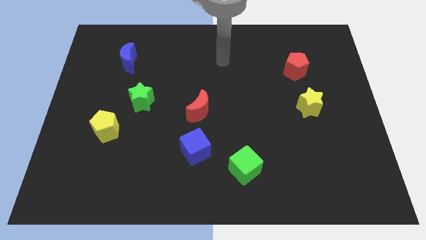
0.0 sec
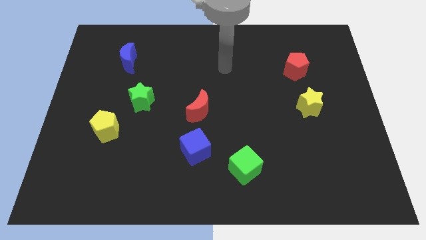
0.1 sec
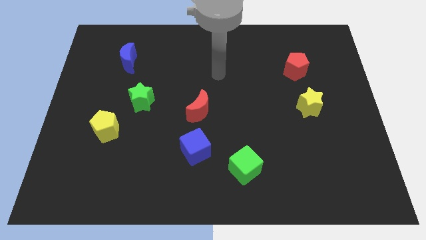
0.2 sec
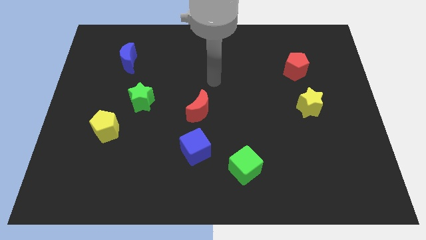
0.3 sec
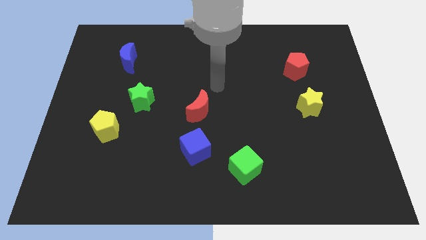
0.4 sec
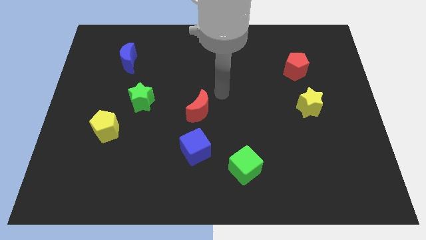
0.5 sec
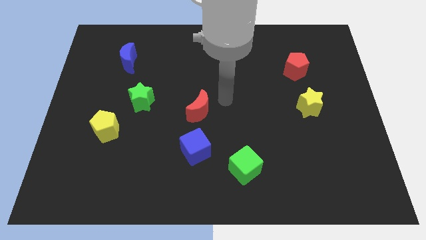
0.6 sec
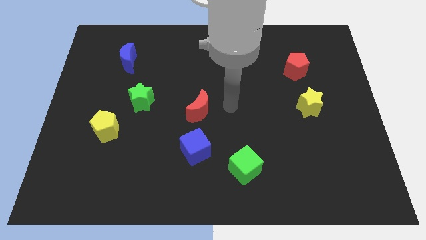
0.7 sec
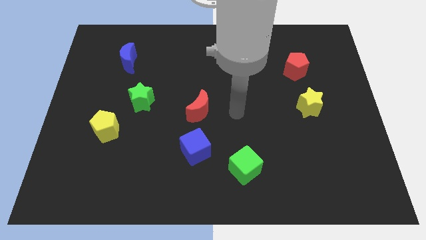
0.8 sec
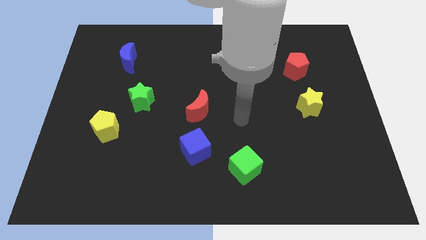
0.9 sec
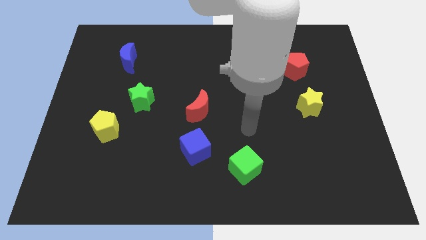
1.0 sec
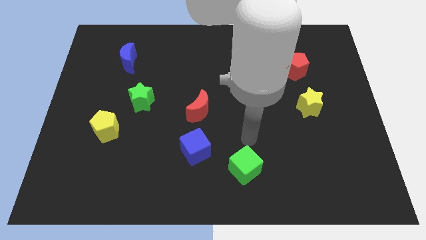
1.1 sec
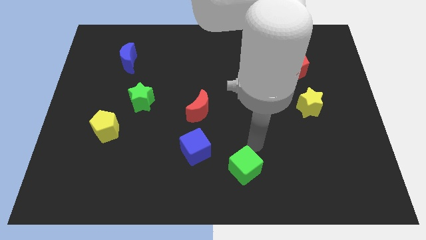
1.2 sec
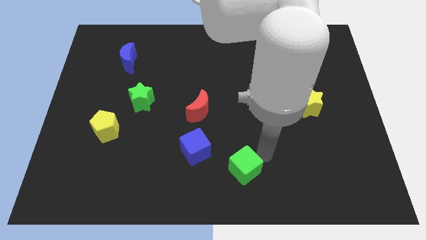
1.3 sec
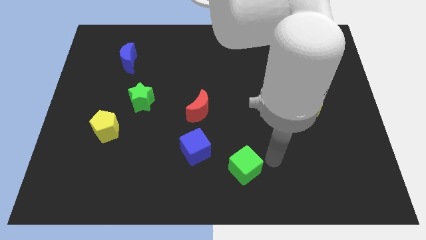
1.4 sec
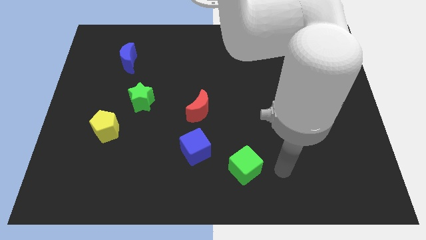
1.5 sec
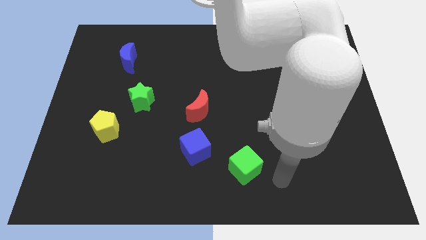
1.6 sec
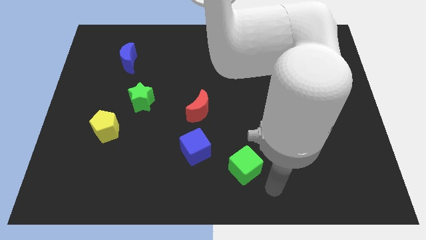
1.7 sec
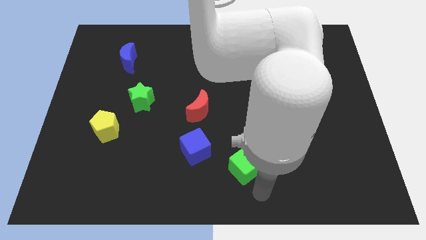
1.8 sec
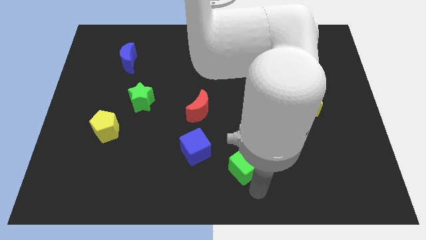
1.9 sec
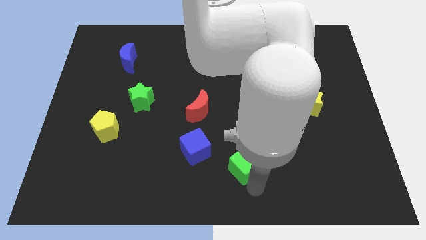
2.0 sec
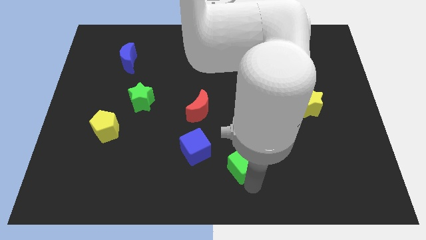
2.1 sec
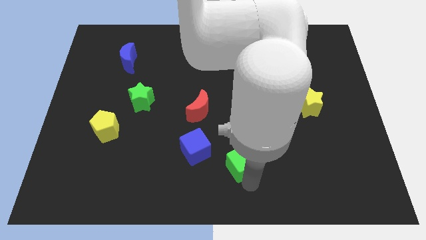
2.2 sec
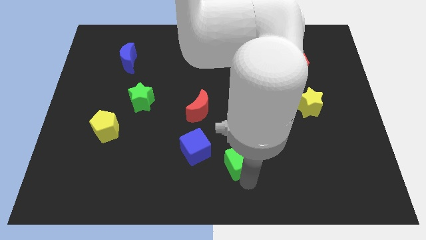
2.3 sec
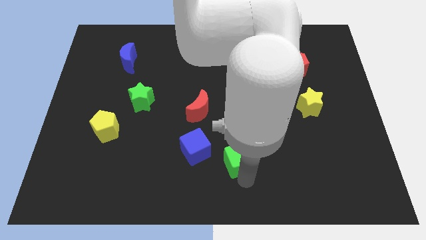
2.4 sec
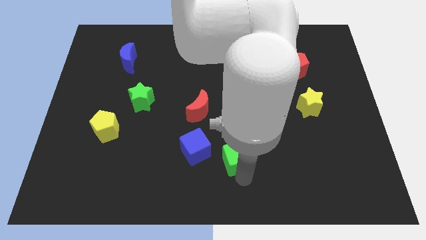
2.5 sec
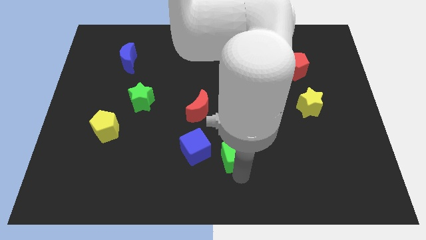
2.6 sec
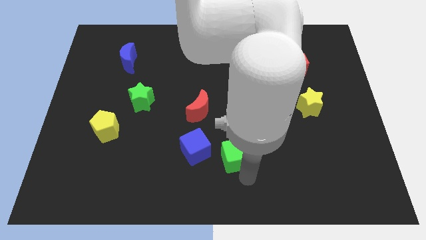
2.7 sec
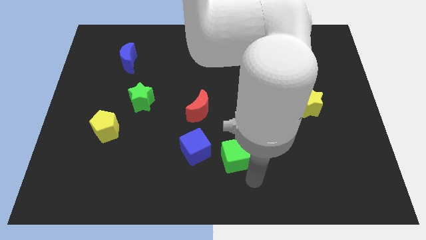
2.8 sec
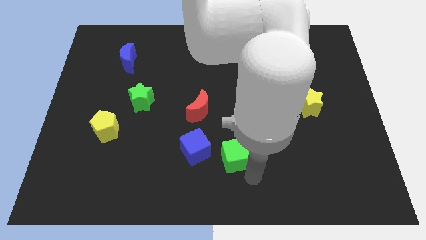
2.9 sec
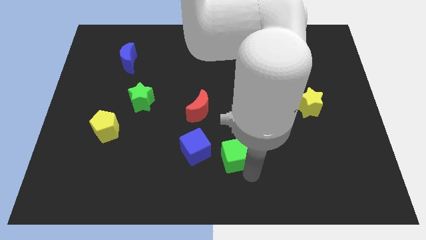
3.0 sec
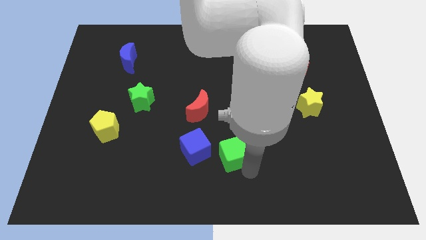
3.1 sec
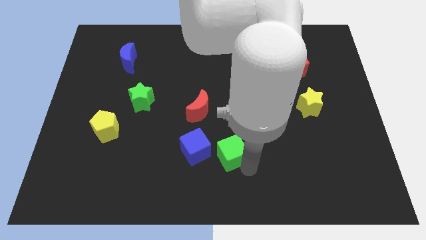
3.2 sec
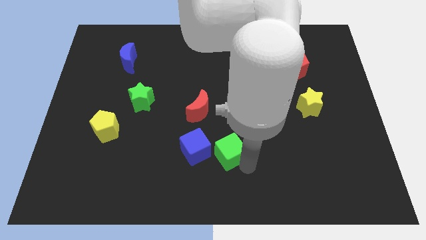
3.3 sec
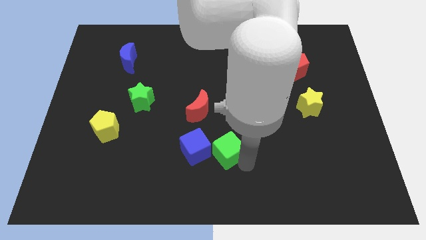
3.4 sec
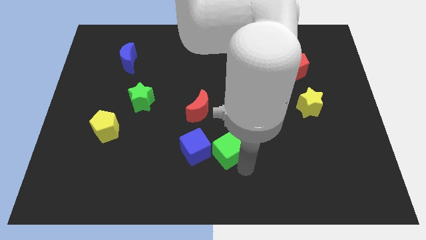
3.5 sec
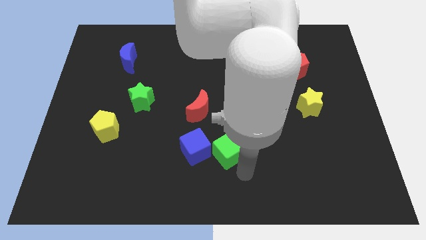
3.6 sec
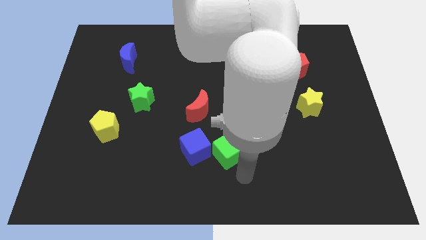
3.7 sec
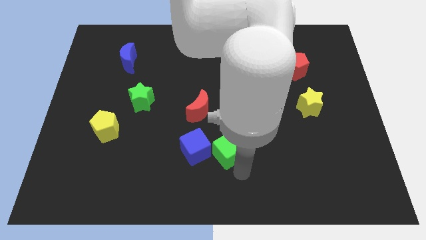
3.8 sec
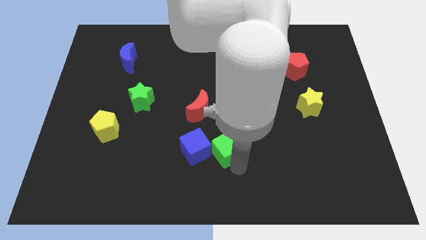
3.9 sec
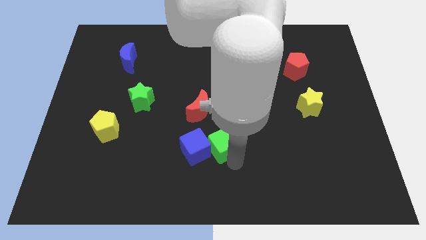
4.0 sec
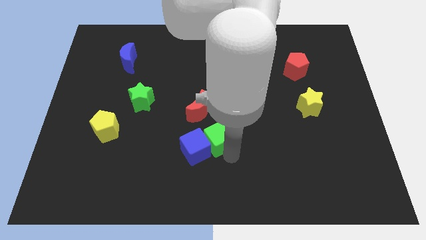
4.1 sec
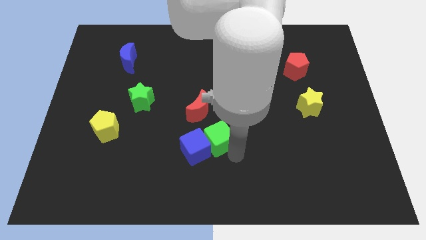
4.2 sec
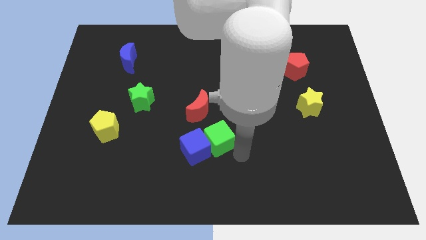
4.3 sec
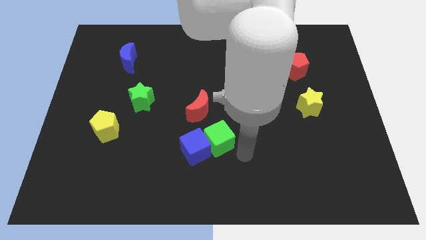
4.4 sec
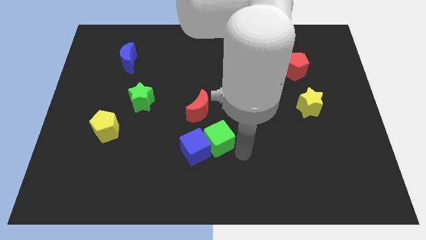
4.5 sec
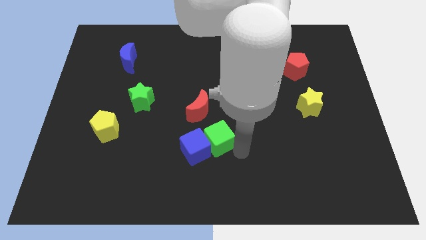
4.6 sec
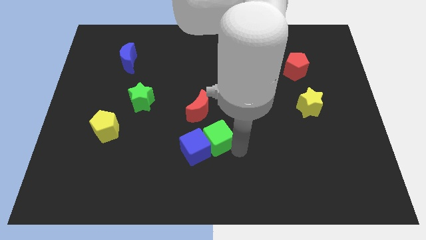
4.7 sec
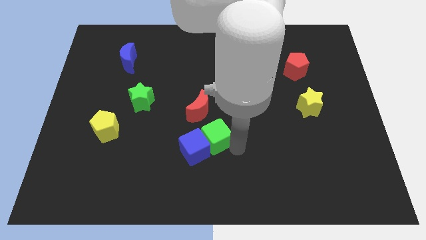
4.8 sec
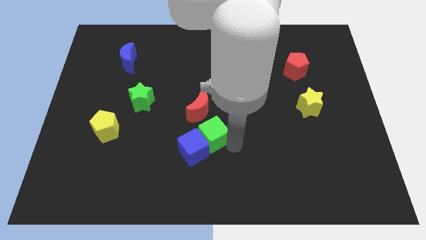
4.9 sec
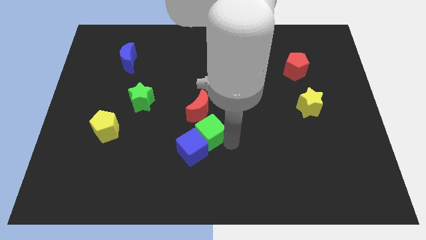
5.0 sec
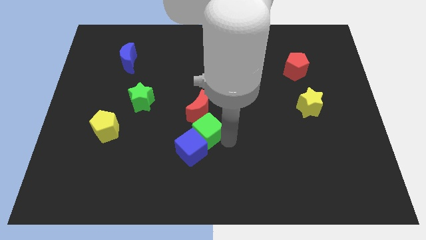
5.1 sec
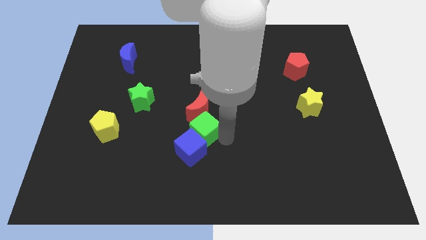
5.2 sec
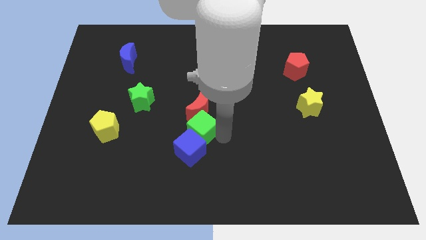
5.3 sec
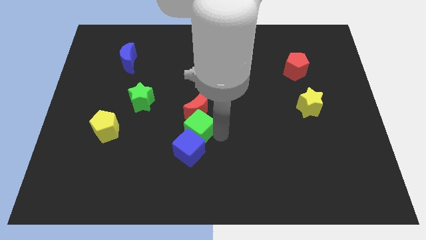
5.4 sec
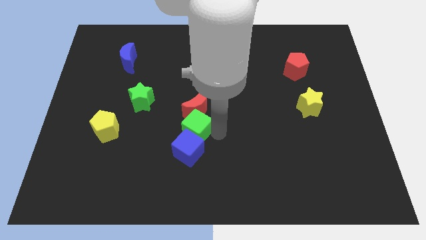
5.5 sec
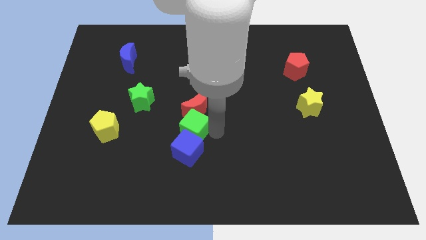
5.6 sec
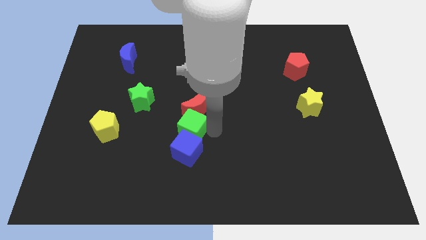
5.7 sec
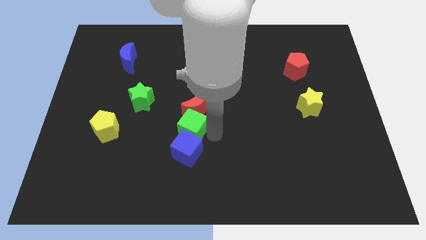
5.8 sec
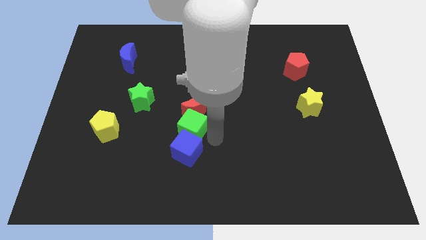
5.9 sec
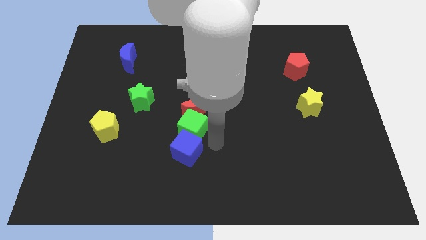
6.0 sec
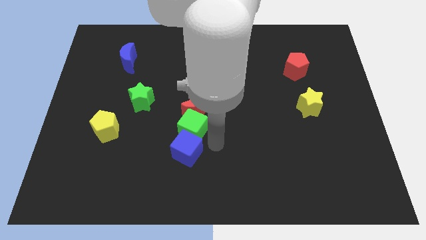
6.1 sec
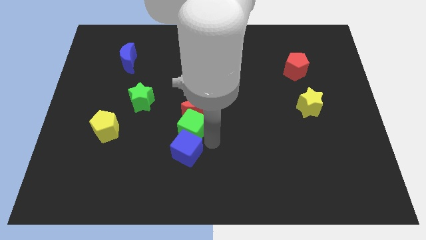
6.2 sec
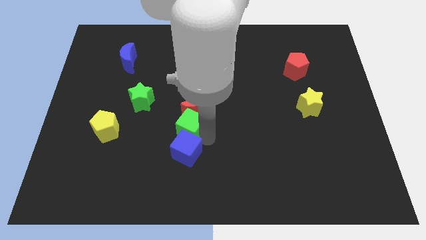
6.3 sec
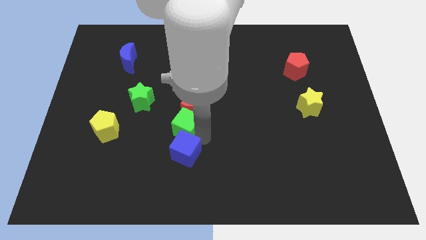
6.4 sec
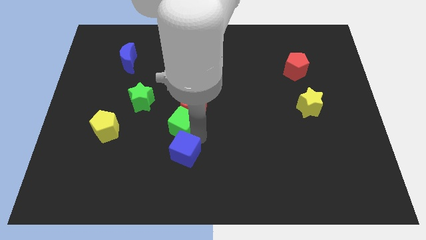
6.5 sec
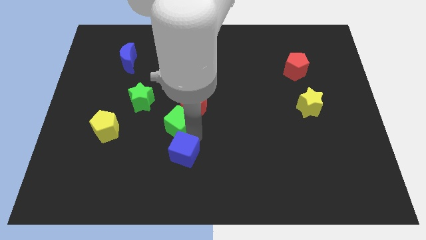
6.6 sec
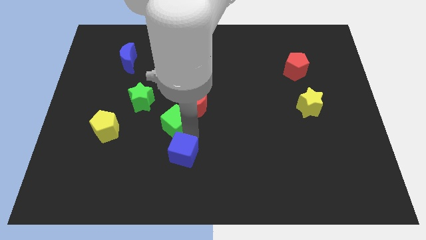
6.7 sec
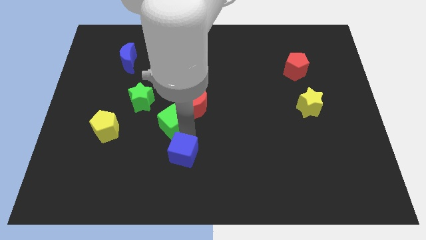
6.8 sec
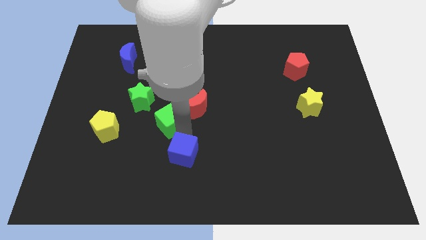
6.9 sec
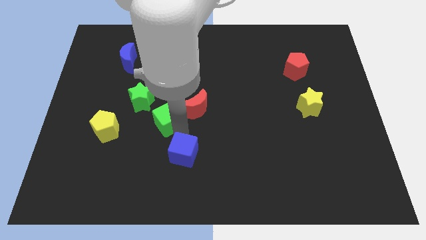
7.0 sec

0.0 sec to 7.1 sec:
slide the green cube up and then to the left

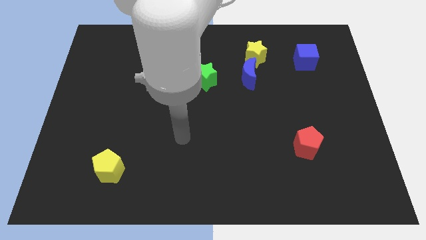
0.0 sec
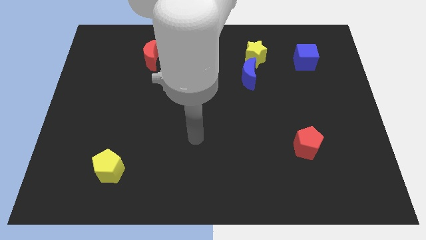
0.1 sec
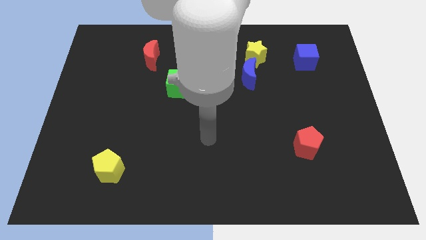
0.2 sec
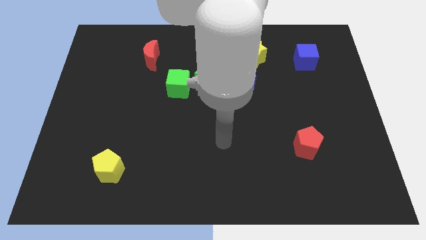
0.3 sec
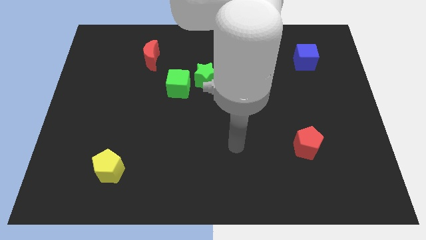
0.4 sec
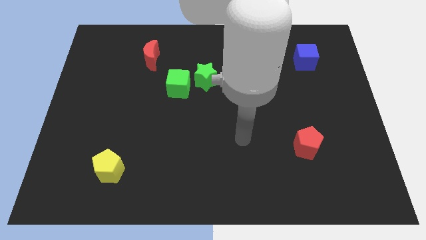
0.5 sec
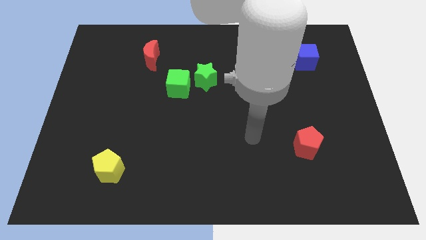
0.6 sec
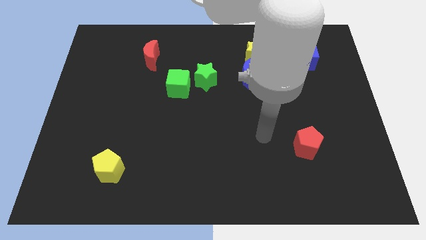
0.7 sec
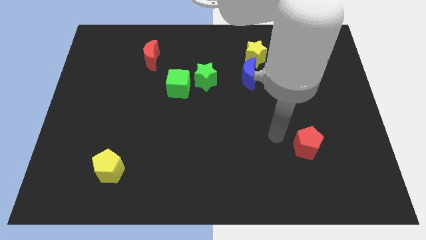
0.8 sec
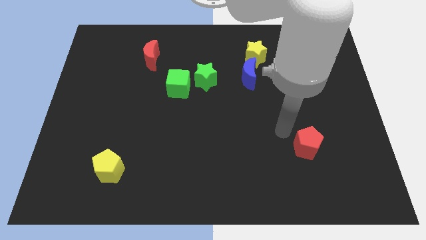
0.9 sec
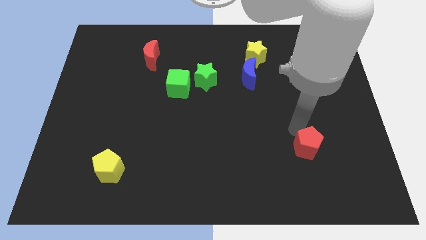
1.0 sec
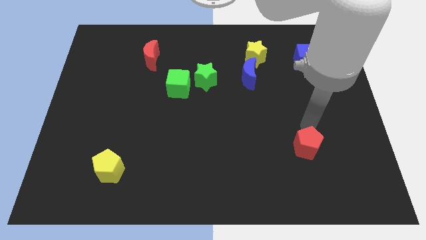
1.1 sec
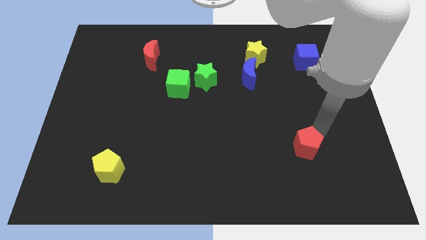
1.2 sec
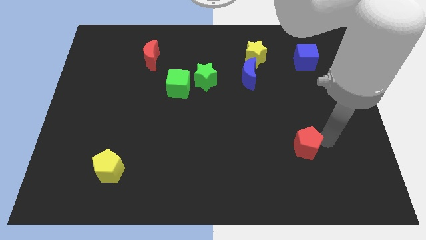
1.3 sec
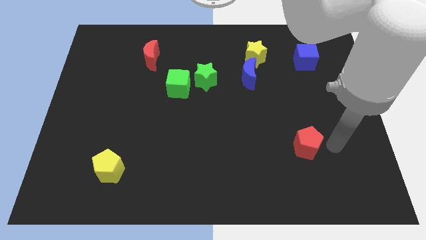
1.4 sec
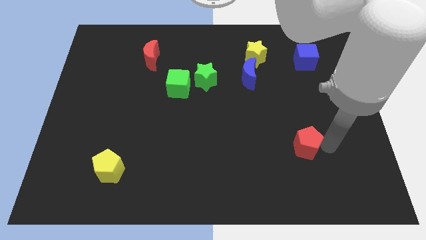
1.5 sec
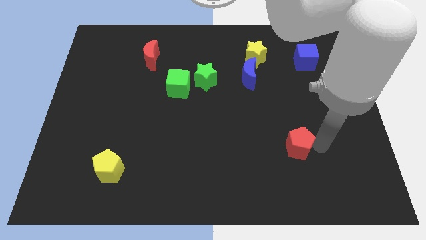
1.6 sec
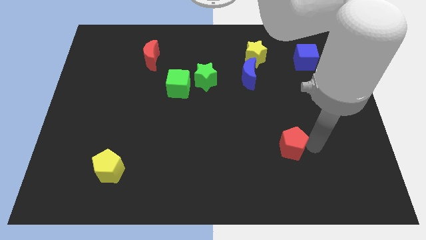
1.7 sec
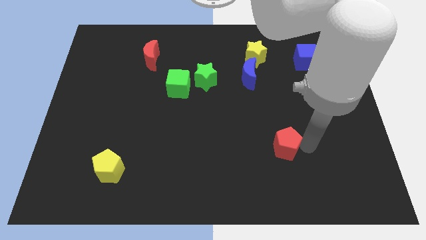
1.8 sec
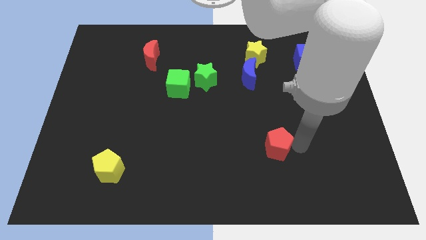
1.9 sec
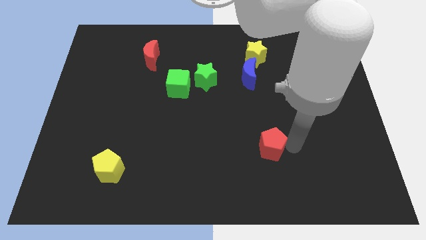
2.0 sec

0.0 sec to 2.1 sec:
slide the red pentagon a little bit to the left
